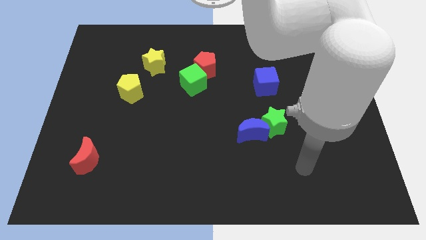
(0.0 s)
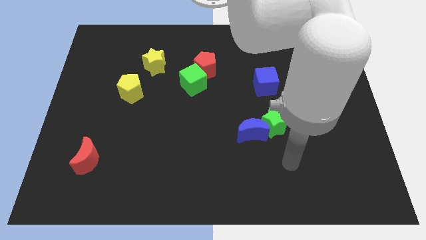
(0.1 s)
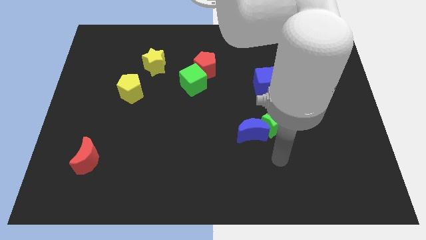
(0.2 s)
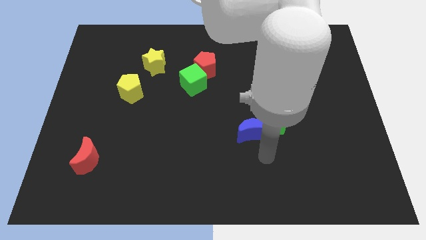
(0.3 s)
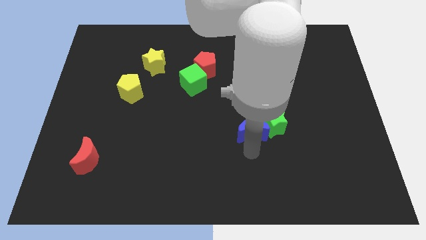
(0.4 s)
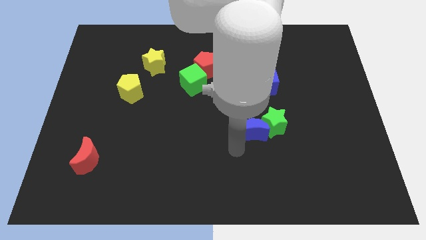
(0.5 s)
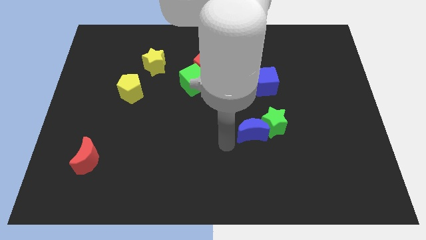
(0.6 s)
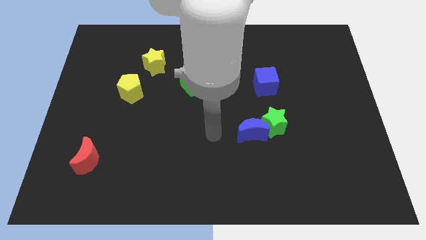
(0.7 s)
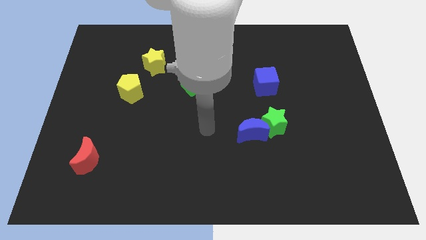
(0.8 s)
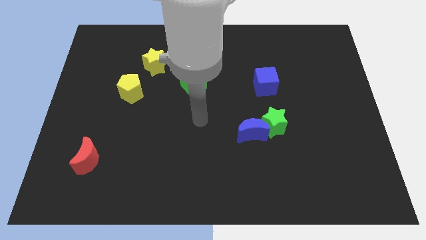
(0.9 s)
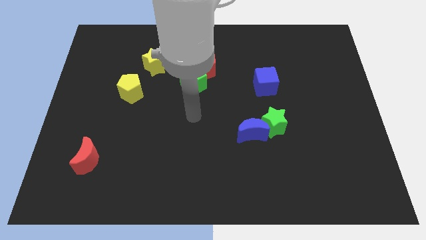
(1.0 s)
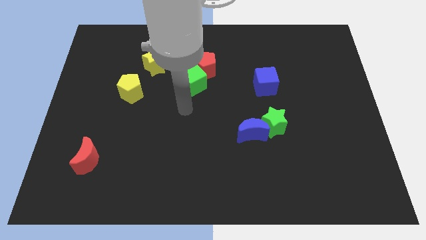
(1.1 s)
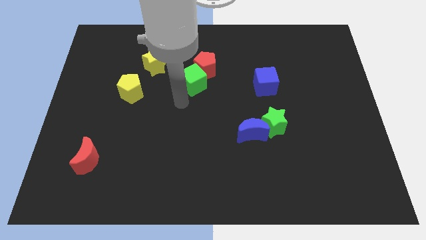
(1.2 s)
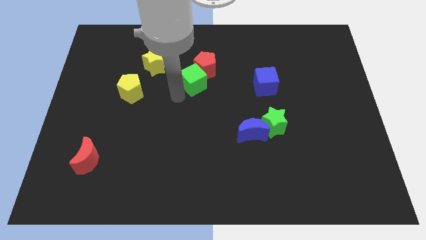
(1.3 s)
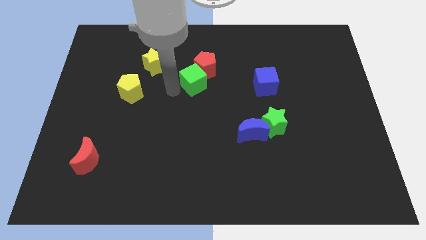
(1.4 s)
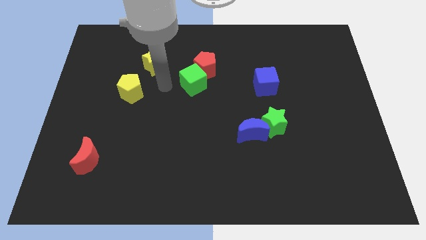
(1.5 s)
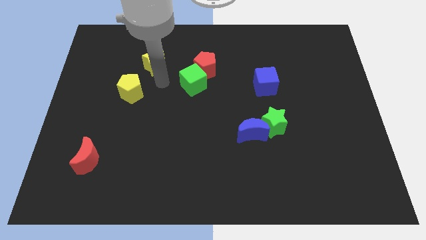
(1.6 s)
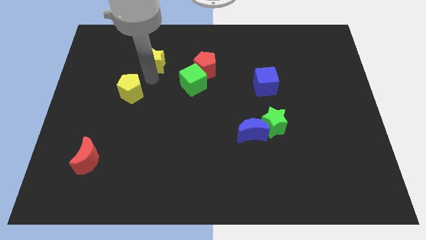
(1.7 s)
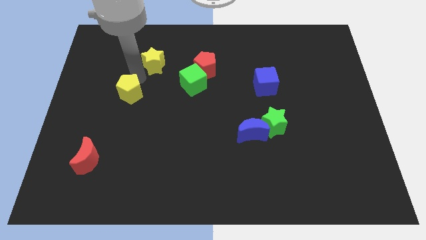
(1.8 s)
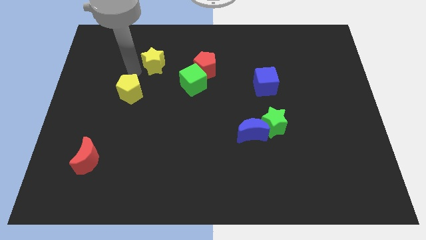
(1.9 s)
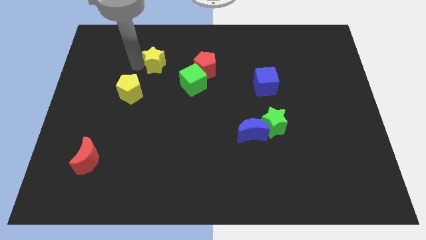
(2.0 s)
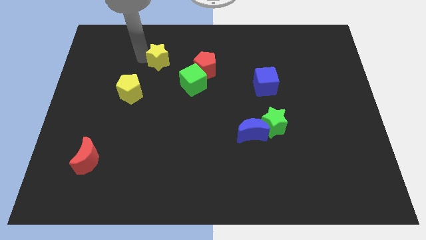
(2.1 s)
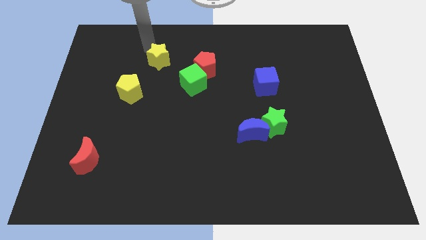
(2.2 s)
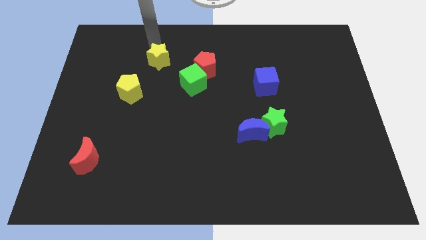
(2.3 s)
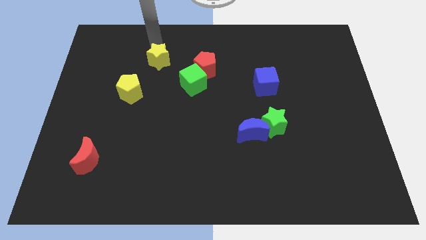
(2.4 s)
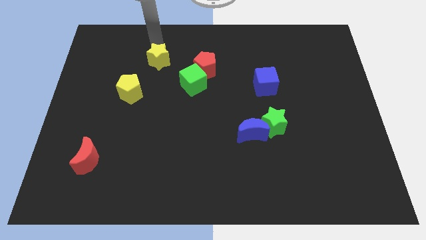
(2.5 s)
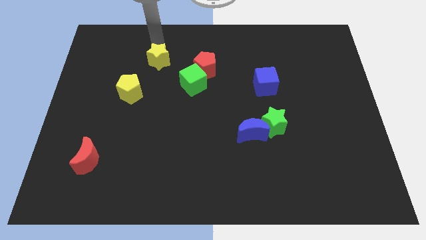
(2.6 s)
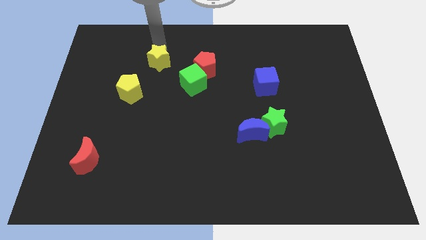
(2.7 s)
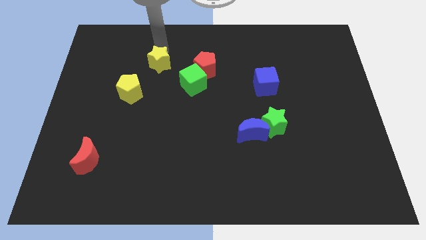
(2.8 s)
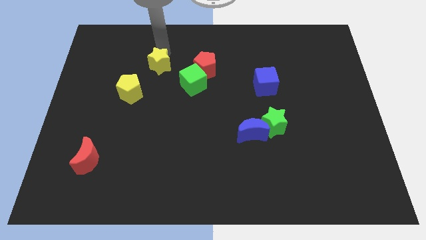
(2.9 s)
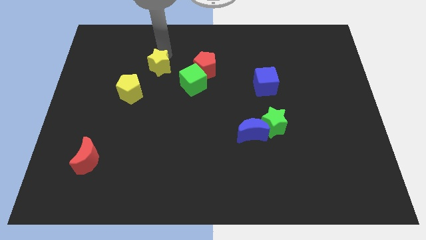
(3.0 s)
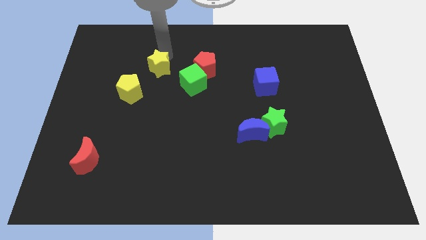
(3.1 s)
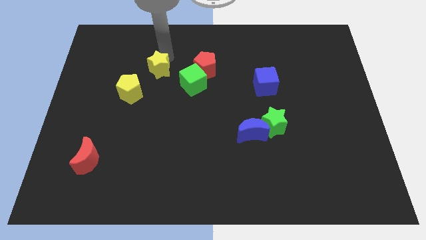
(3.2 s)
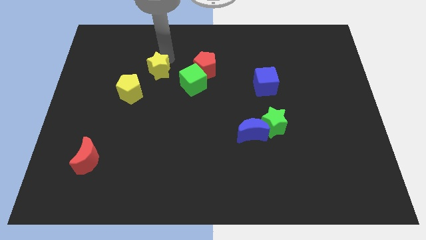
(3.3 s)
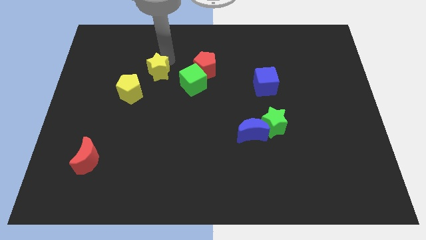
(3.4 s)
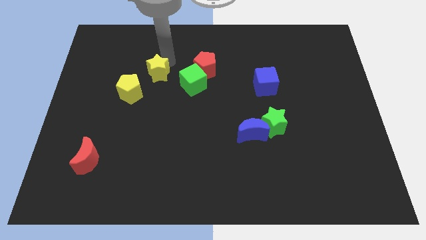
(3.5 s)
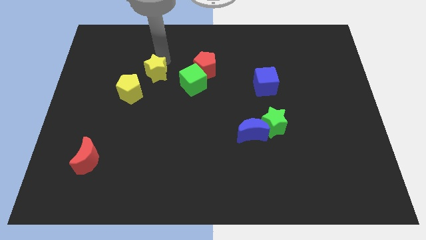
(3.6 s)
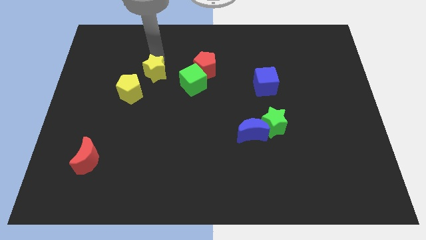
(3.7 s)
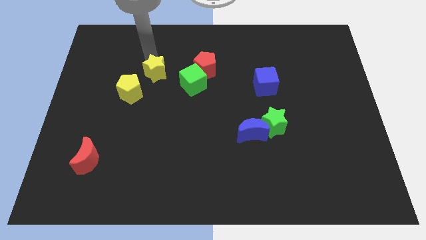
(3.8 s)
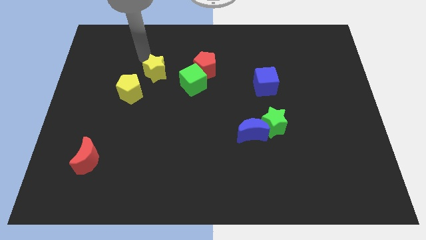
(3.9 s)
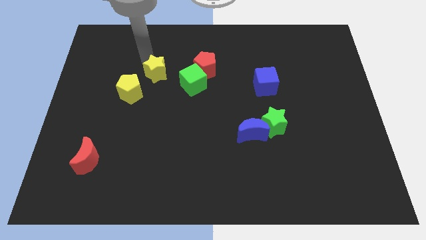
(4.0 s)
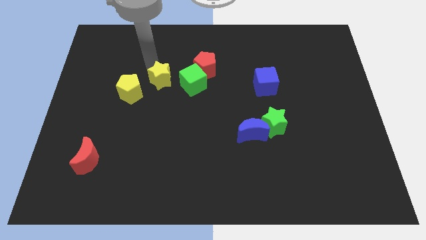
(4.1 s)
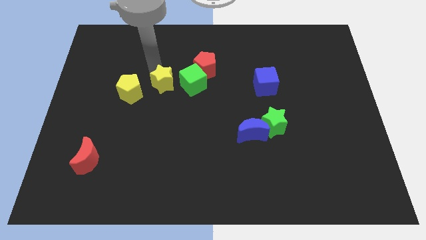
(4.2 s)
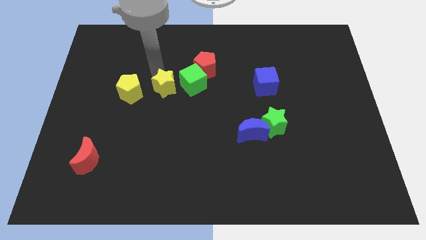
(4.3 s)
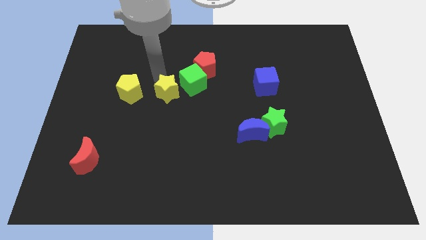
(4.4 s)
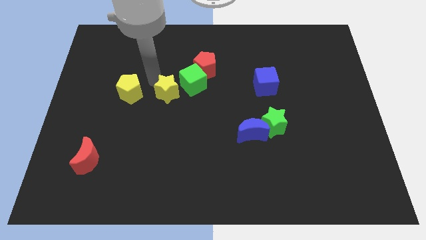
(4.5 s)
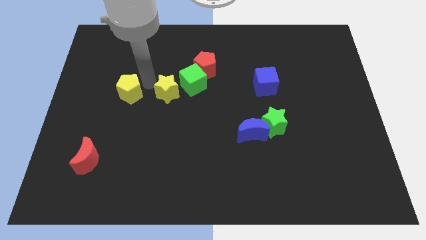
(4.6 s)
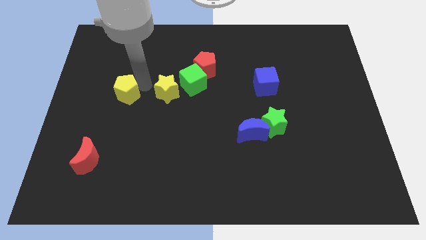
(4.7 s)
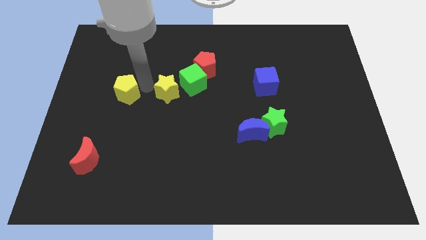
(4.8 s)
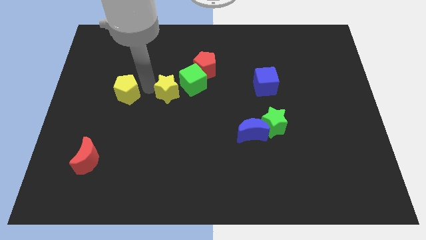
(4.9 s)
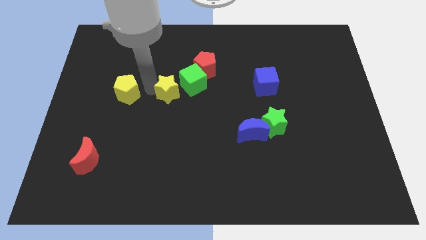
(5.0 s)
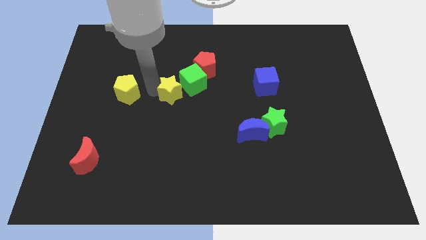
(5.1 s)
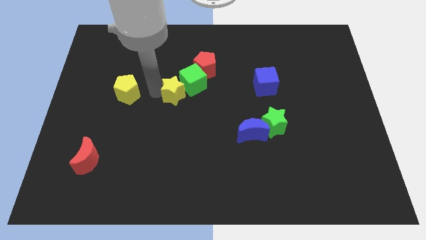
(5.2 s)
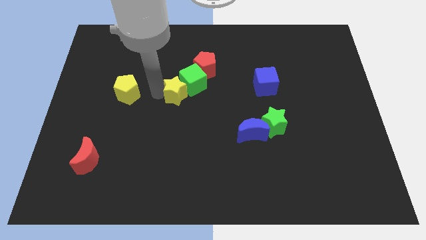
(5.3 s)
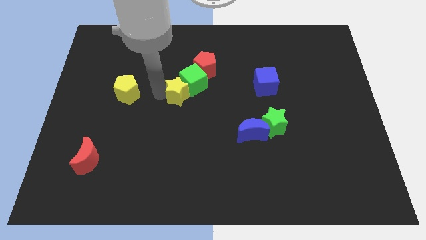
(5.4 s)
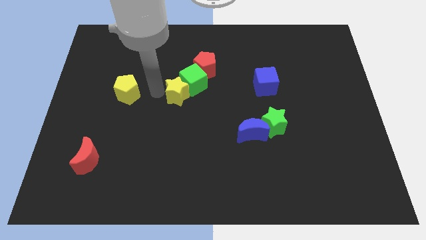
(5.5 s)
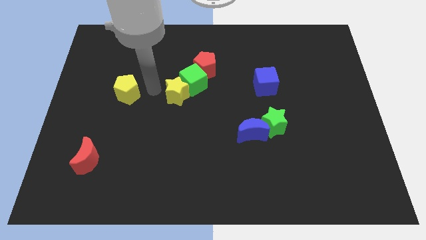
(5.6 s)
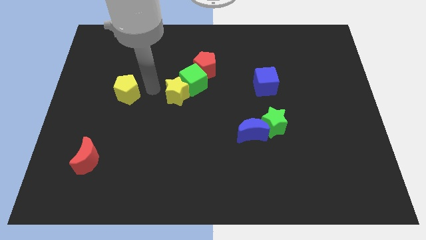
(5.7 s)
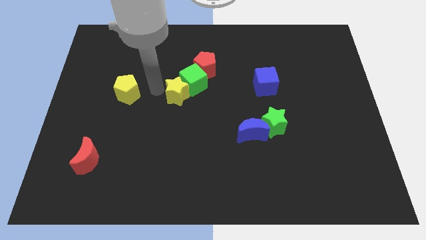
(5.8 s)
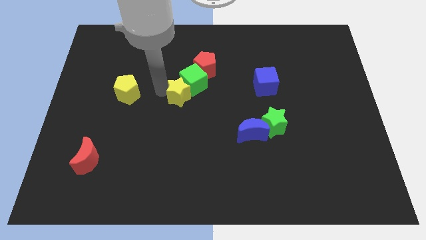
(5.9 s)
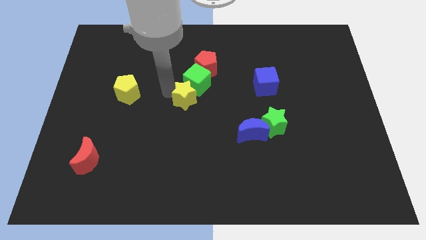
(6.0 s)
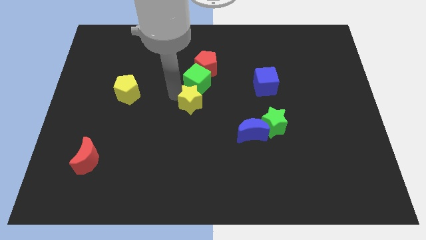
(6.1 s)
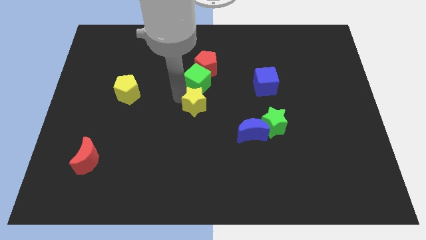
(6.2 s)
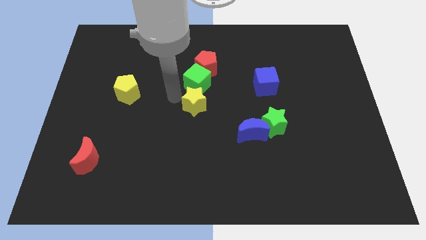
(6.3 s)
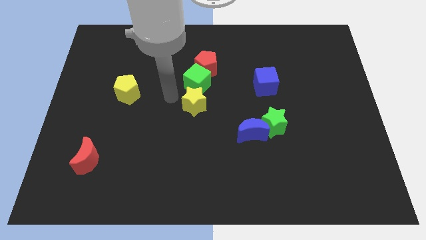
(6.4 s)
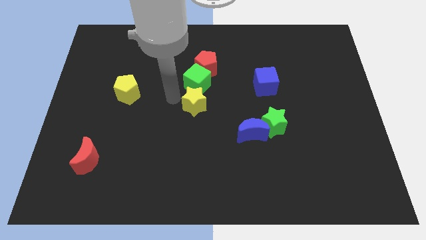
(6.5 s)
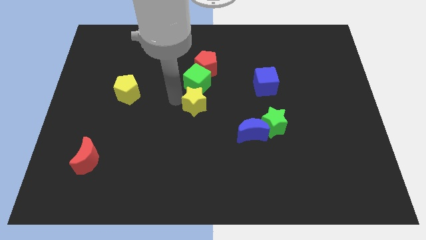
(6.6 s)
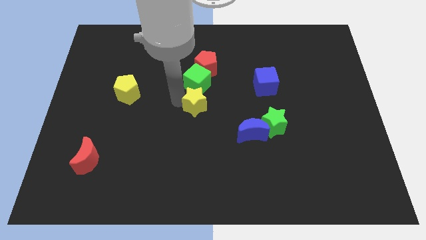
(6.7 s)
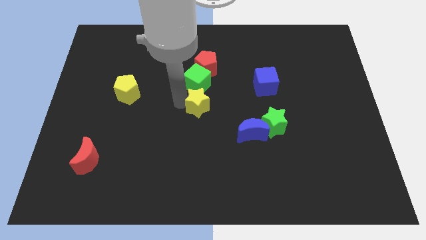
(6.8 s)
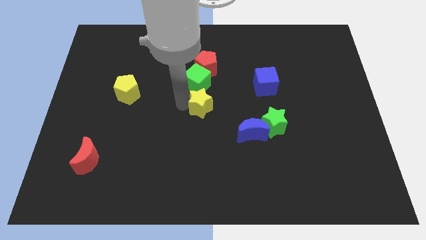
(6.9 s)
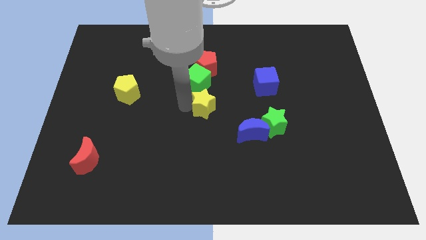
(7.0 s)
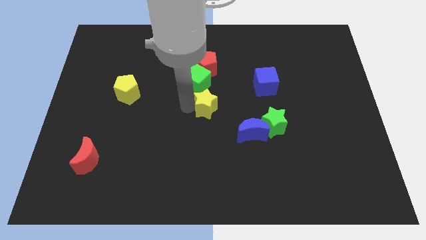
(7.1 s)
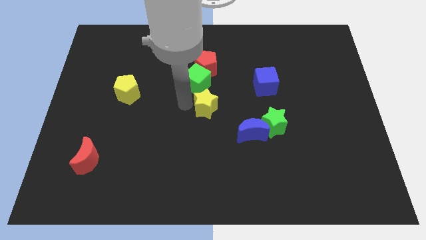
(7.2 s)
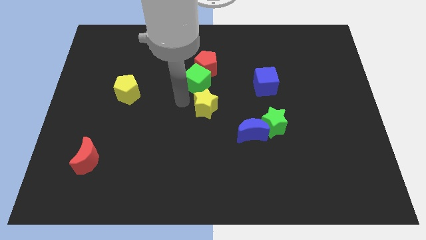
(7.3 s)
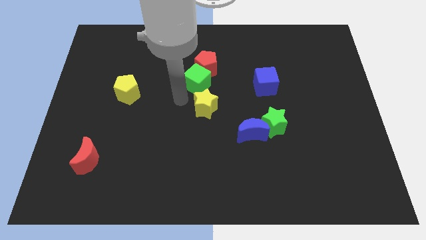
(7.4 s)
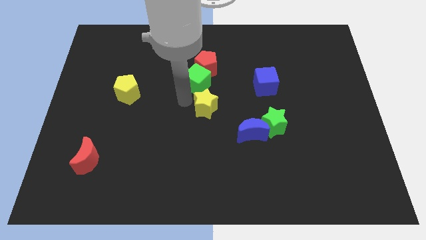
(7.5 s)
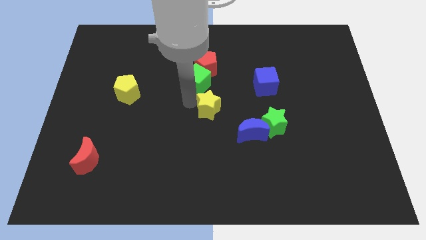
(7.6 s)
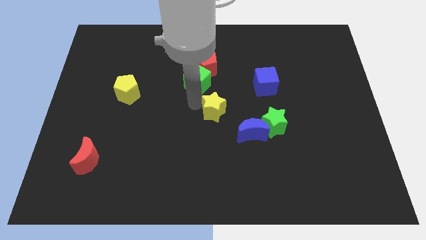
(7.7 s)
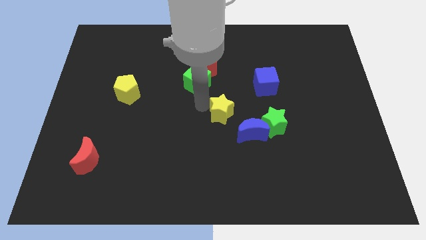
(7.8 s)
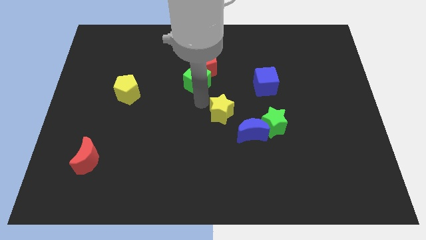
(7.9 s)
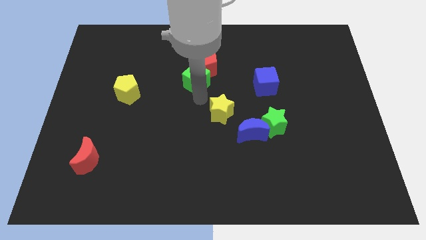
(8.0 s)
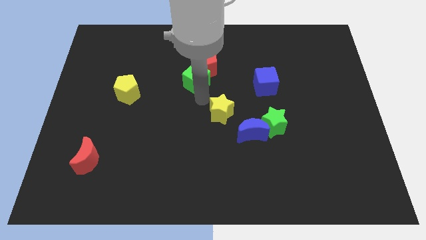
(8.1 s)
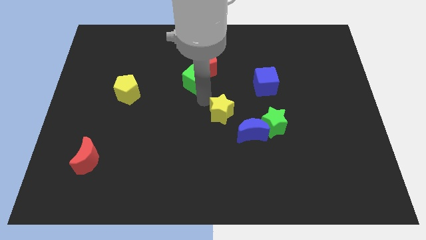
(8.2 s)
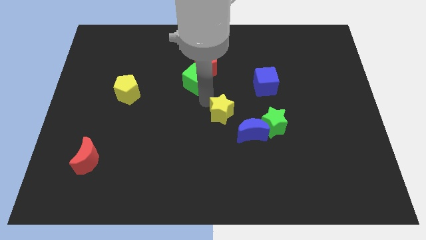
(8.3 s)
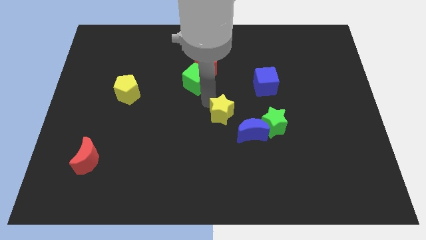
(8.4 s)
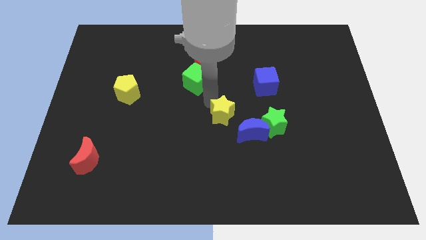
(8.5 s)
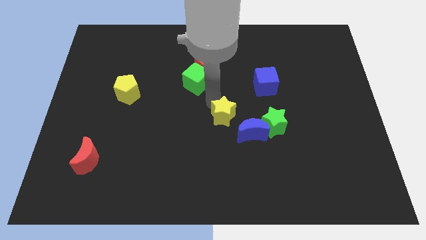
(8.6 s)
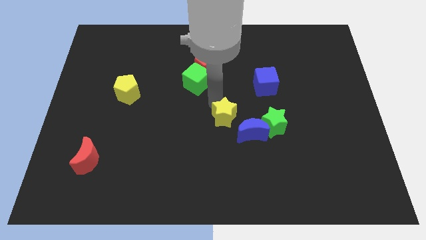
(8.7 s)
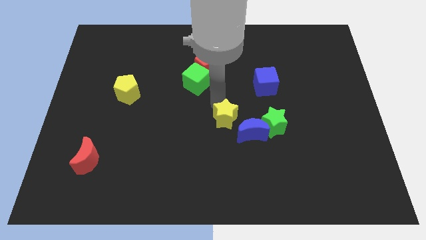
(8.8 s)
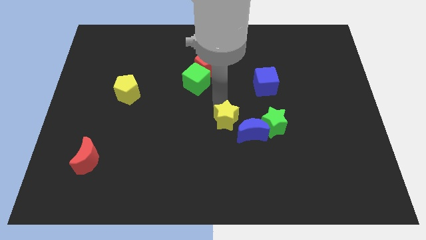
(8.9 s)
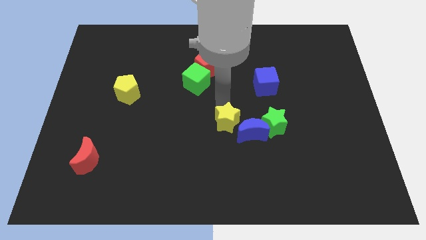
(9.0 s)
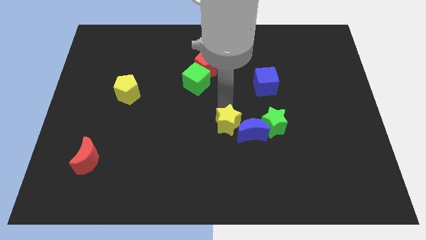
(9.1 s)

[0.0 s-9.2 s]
move the yellow star to the blue moon
